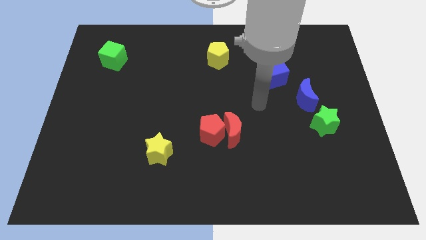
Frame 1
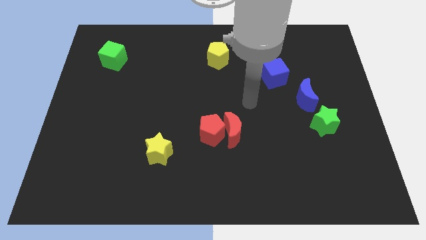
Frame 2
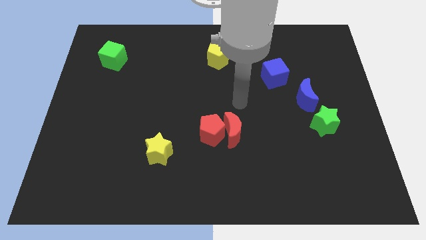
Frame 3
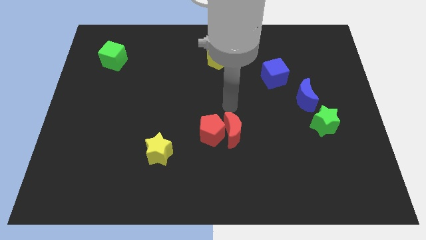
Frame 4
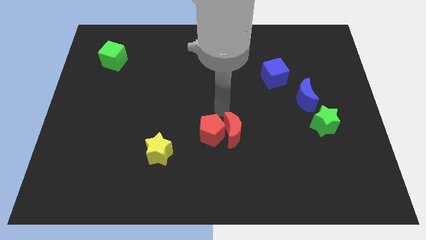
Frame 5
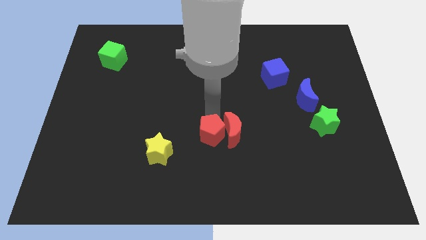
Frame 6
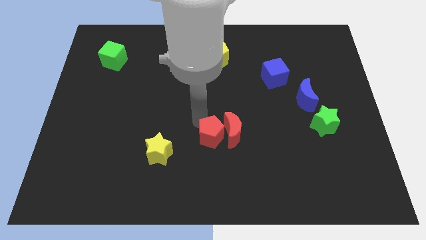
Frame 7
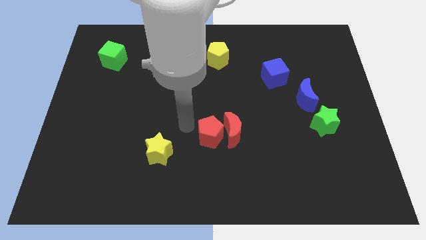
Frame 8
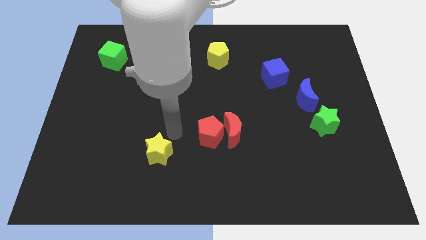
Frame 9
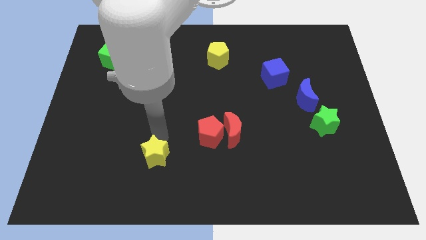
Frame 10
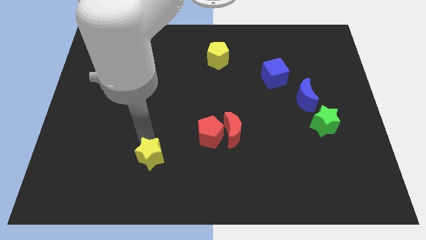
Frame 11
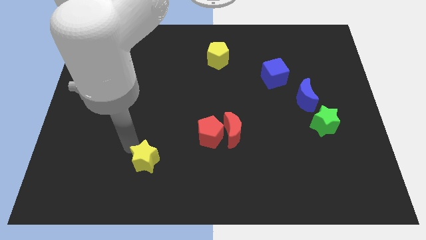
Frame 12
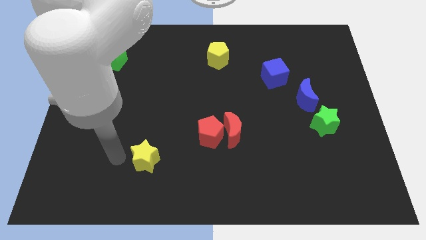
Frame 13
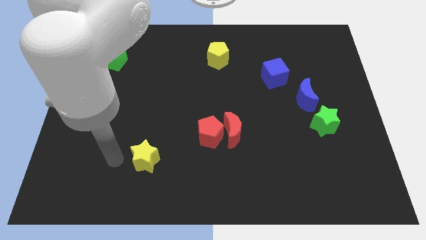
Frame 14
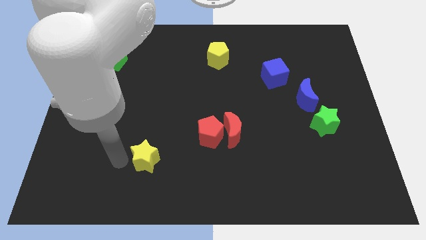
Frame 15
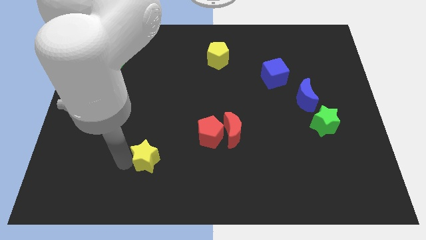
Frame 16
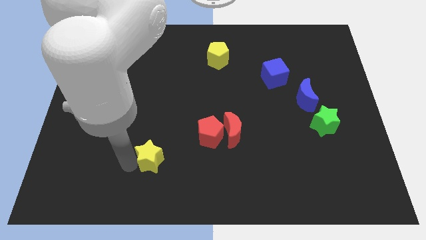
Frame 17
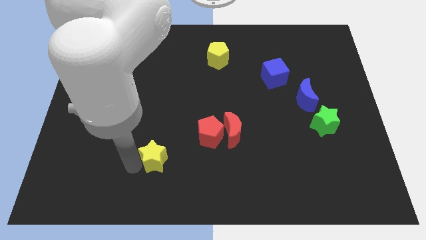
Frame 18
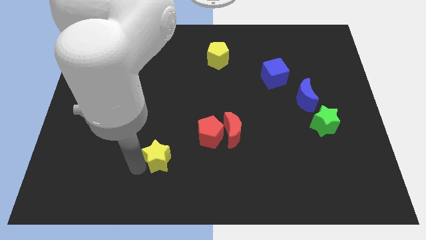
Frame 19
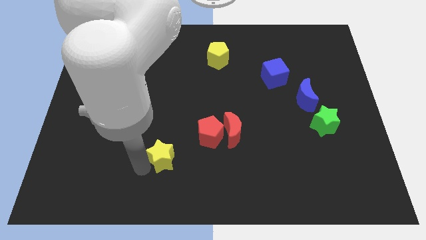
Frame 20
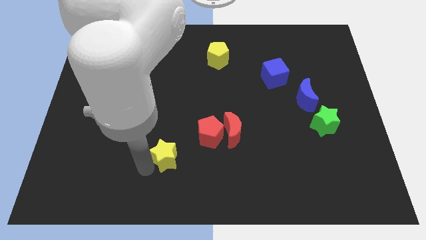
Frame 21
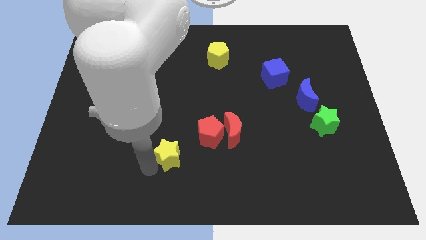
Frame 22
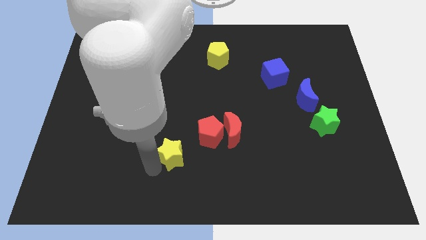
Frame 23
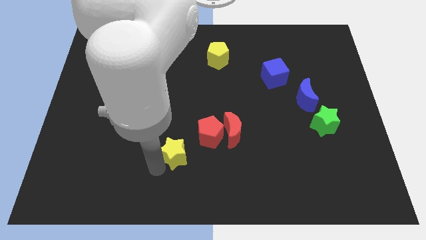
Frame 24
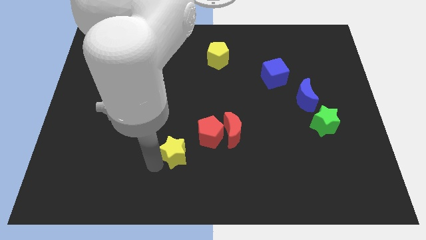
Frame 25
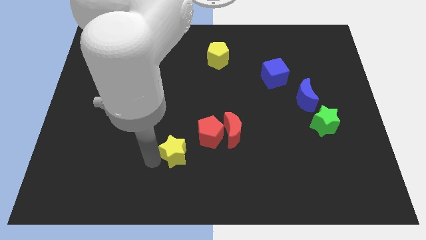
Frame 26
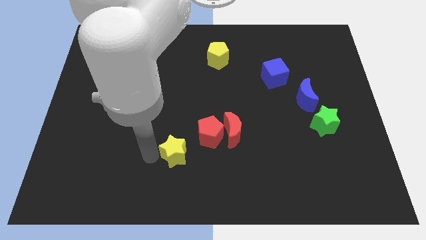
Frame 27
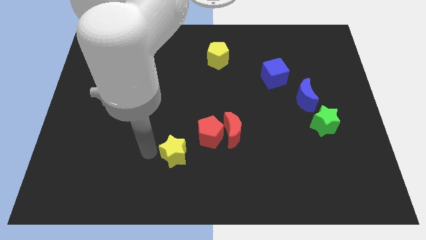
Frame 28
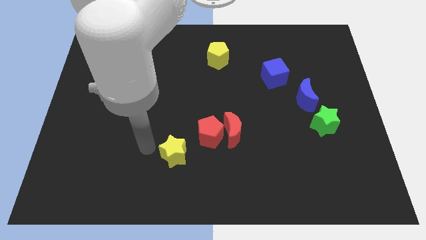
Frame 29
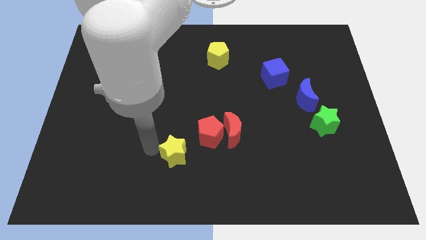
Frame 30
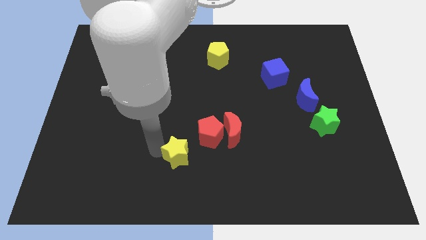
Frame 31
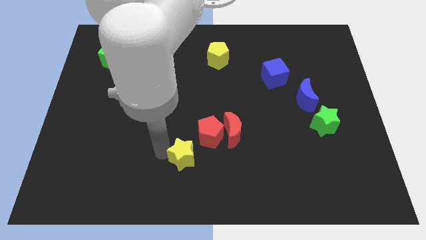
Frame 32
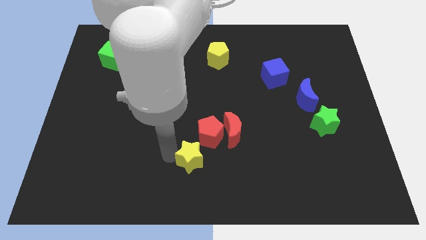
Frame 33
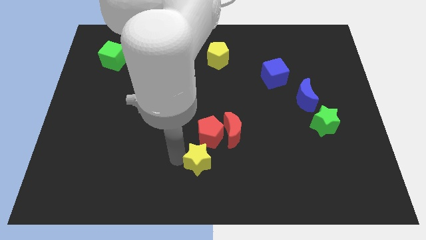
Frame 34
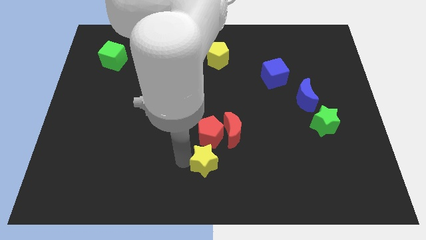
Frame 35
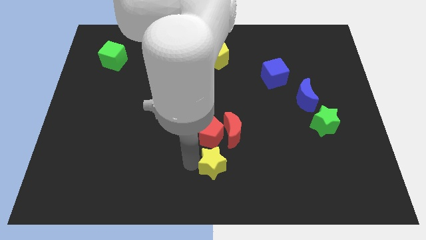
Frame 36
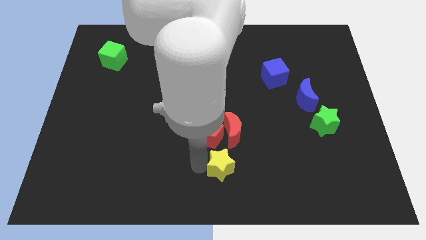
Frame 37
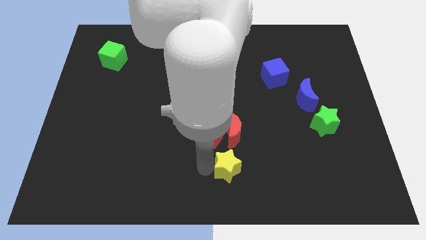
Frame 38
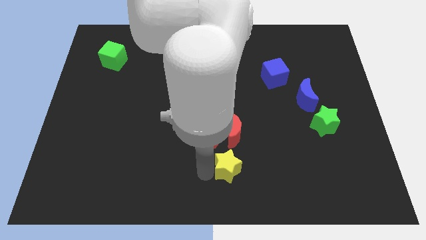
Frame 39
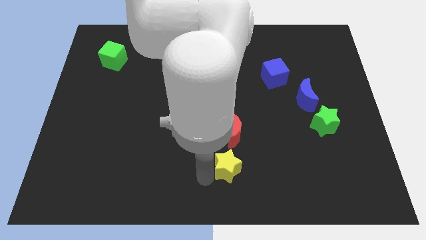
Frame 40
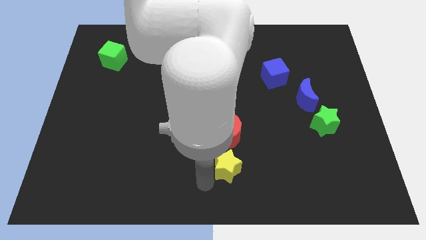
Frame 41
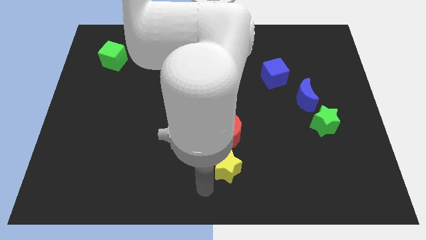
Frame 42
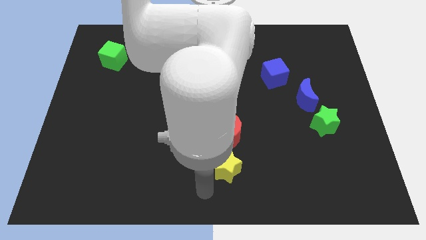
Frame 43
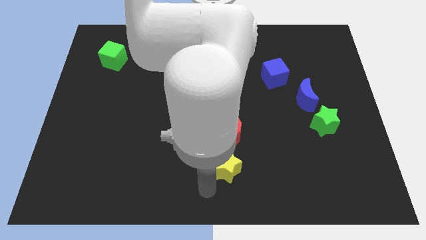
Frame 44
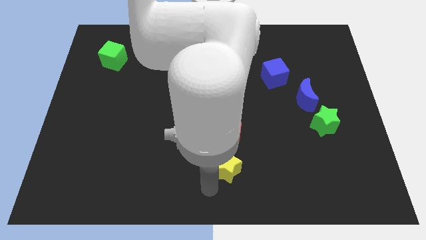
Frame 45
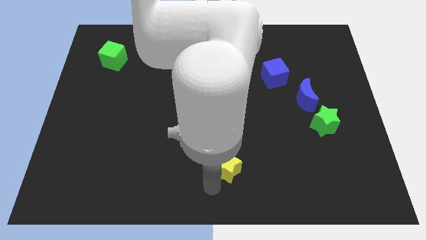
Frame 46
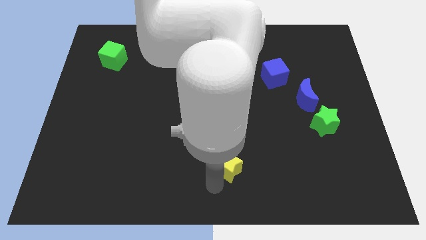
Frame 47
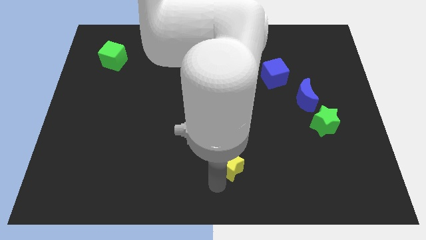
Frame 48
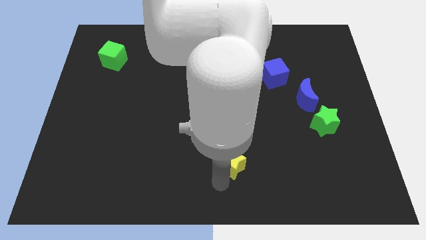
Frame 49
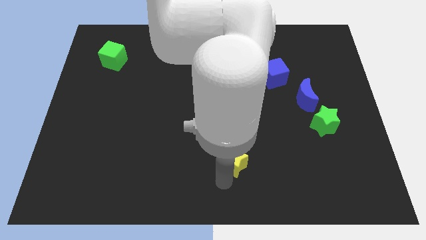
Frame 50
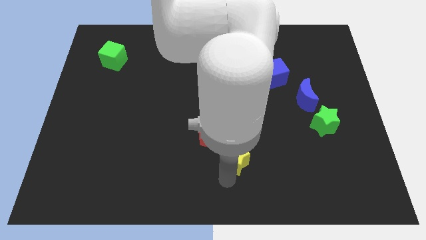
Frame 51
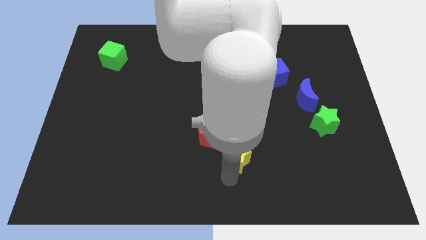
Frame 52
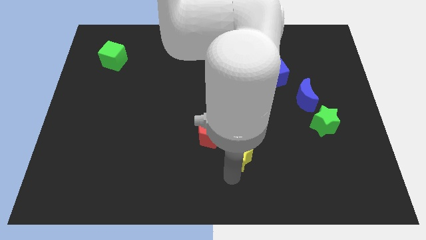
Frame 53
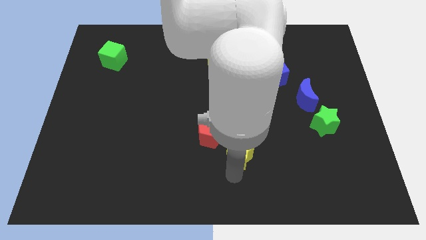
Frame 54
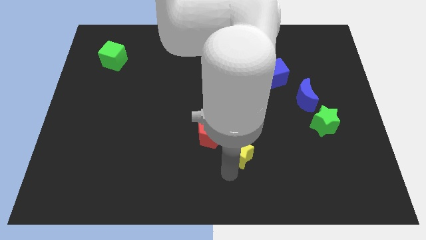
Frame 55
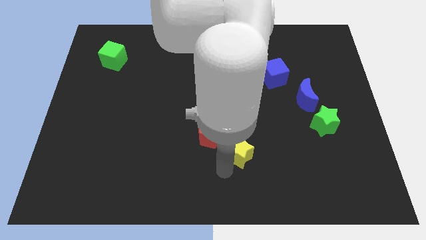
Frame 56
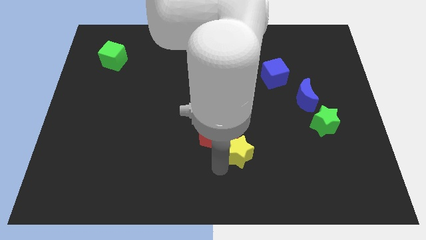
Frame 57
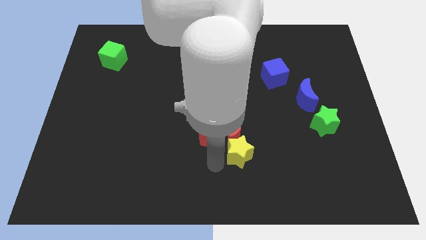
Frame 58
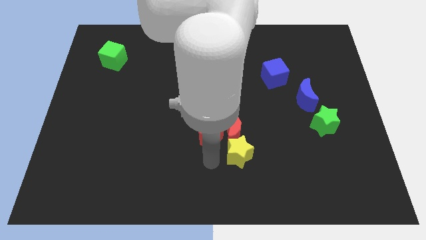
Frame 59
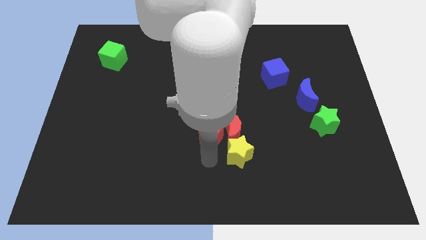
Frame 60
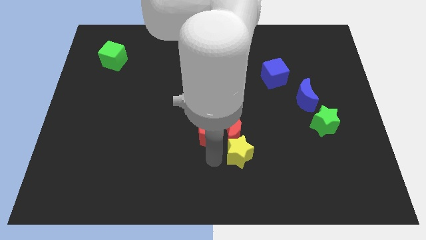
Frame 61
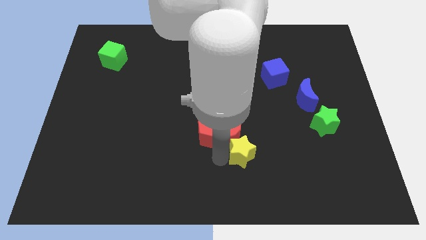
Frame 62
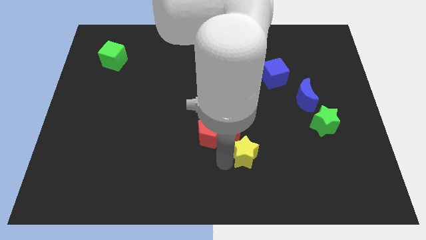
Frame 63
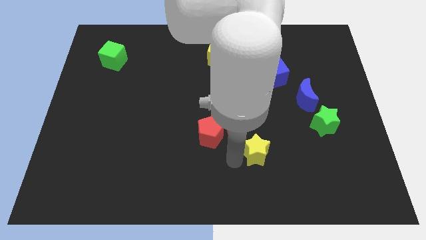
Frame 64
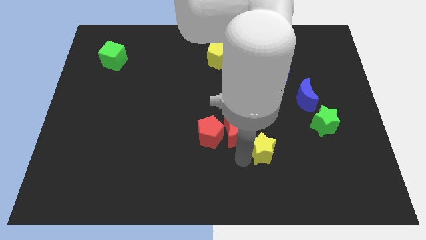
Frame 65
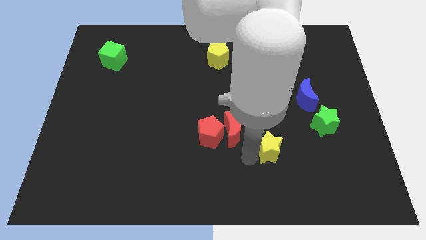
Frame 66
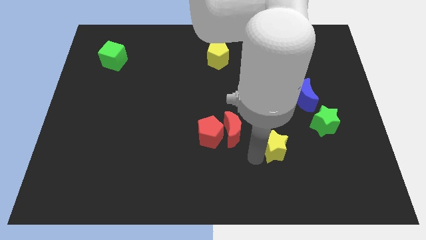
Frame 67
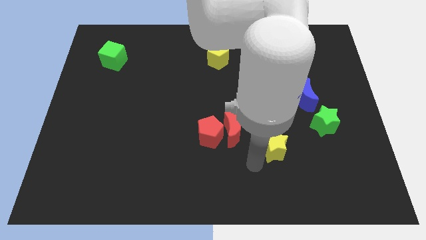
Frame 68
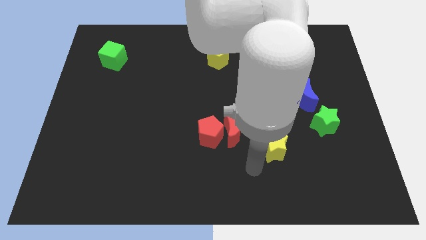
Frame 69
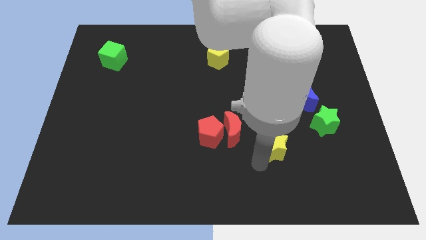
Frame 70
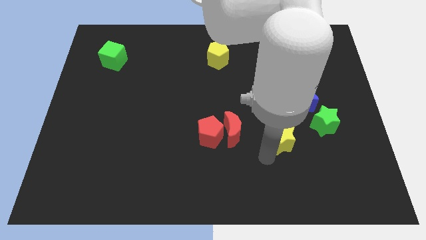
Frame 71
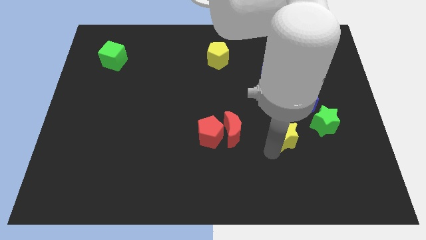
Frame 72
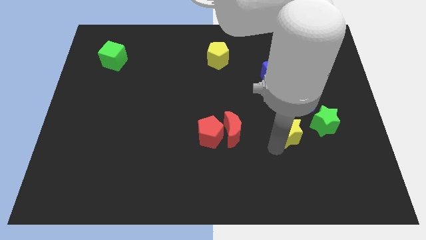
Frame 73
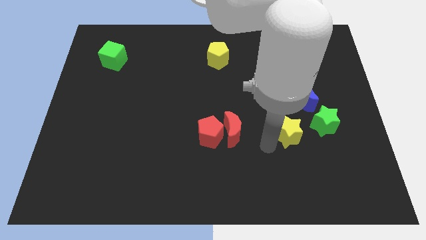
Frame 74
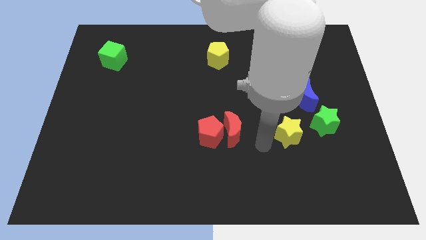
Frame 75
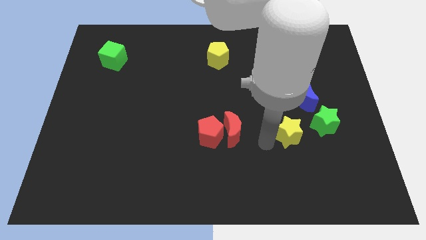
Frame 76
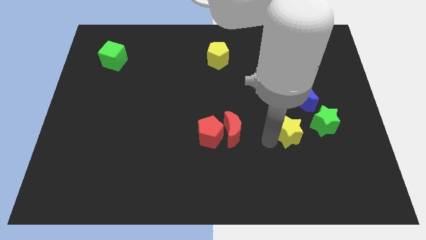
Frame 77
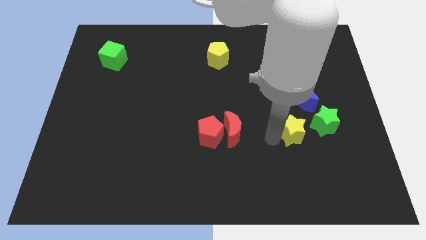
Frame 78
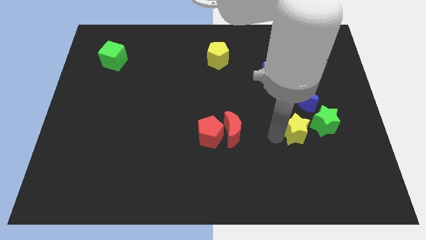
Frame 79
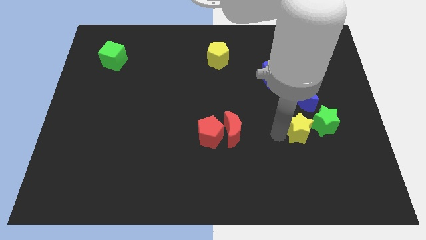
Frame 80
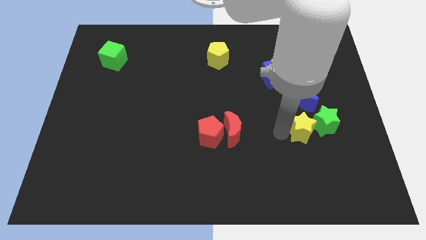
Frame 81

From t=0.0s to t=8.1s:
slide the yellow star to the green star
